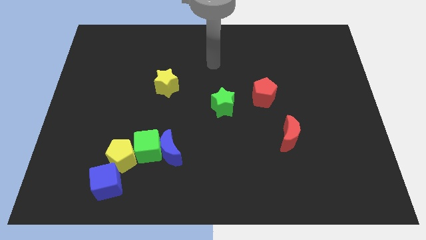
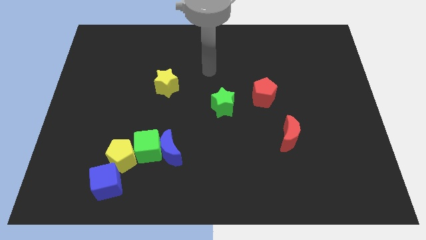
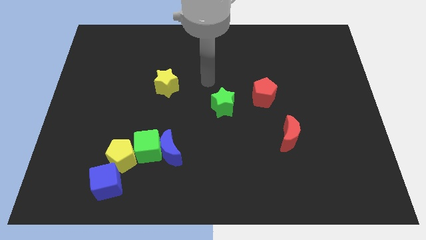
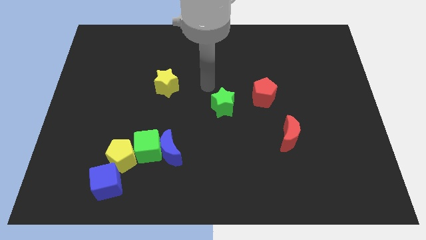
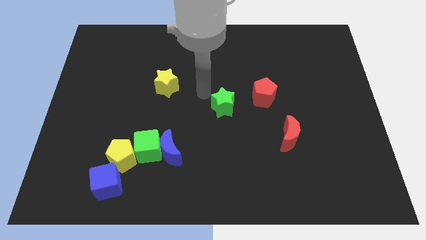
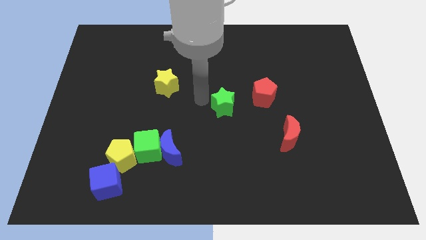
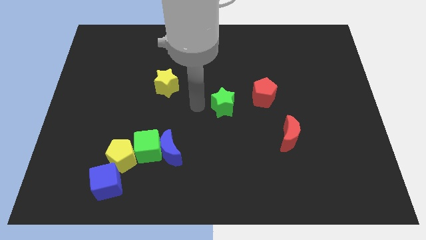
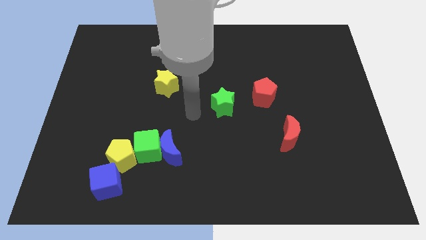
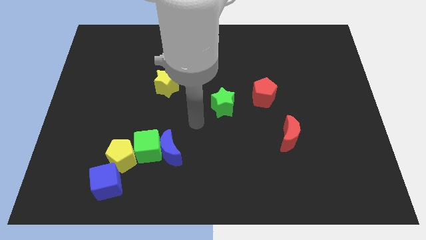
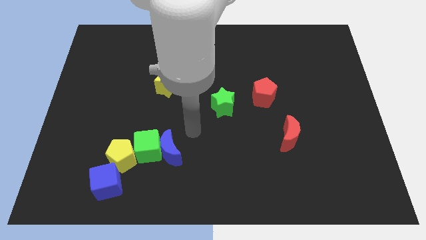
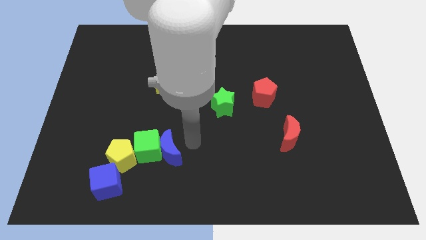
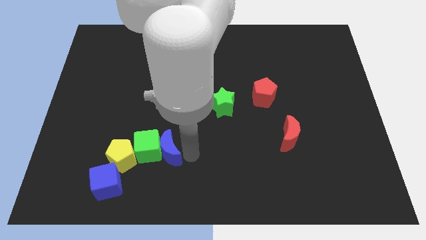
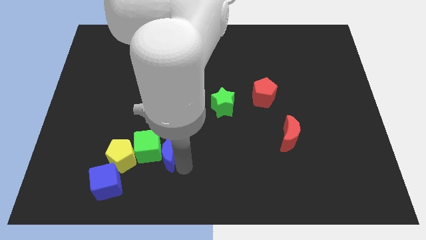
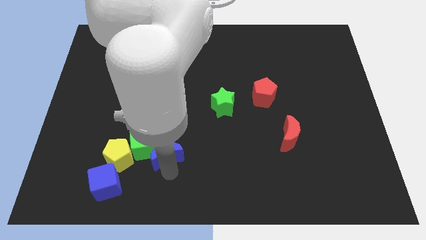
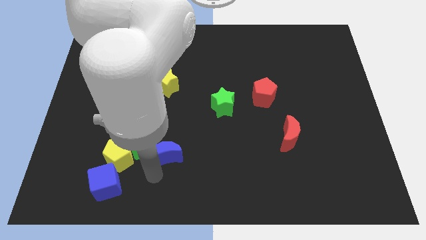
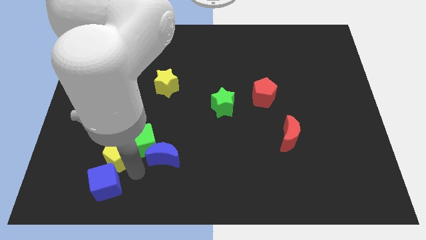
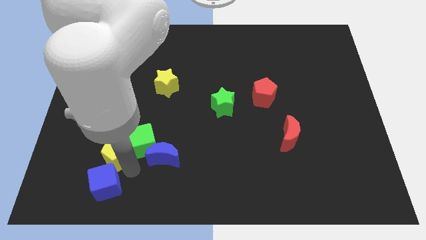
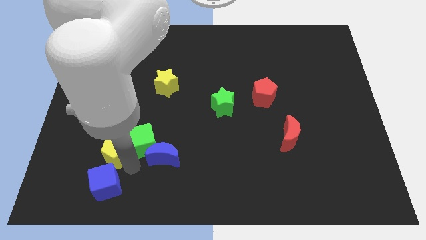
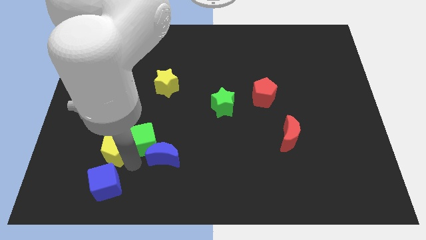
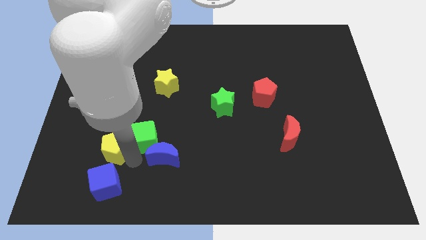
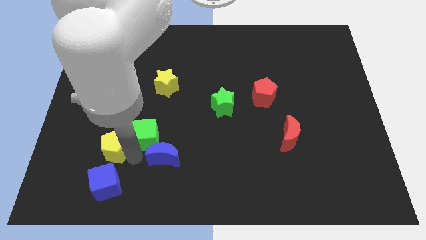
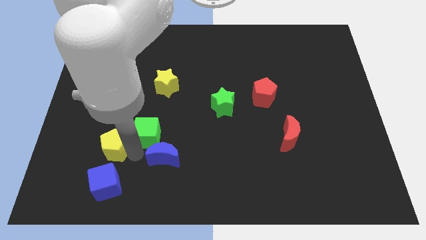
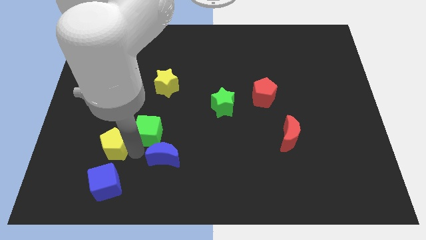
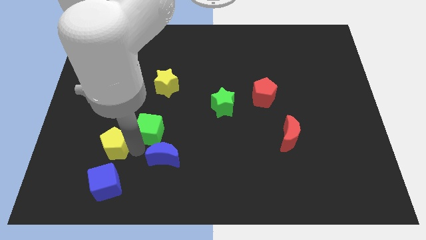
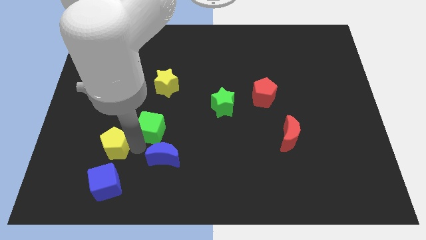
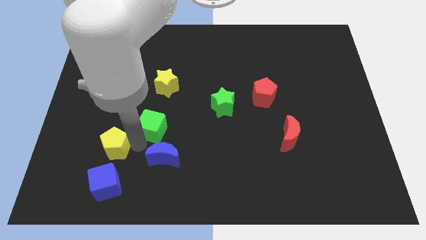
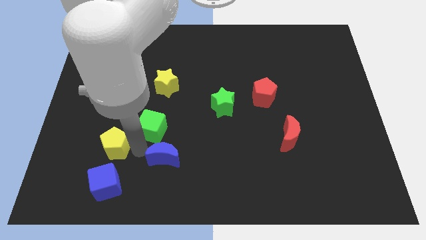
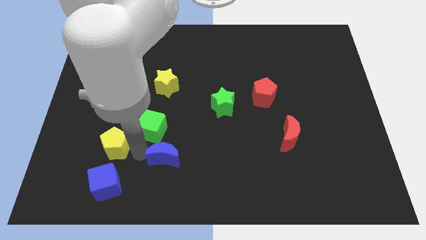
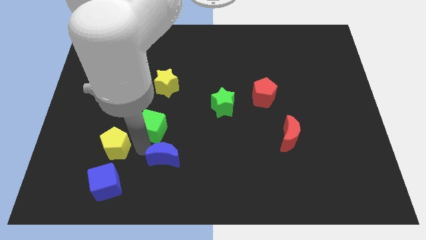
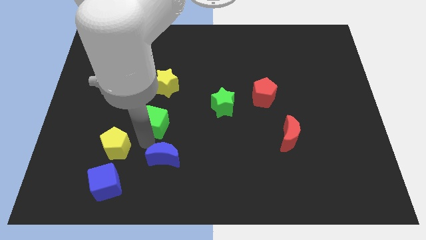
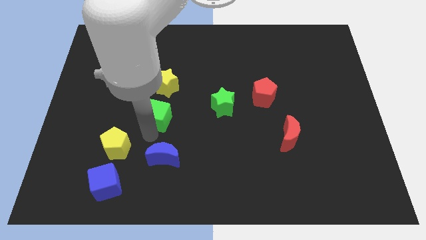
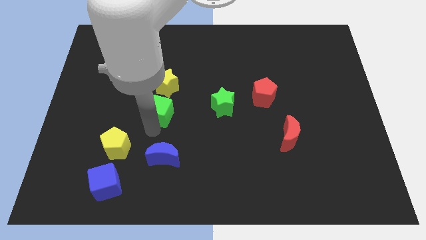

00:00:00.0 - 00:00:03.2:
pull the green cube apart from the blue moon and yellow pentagon

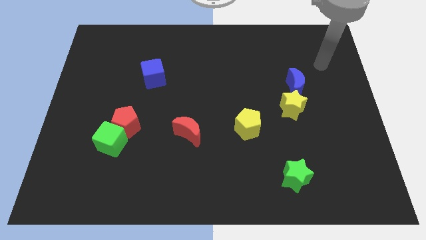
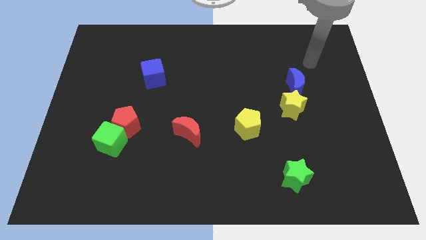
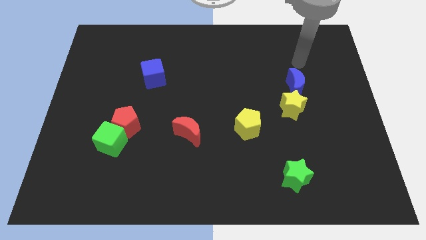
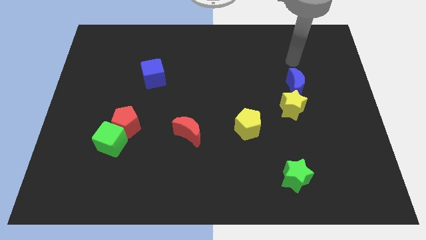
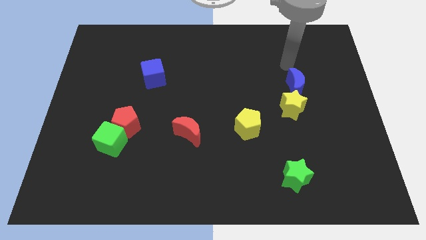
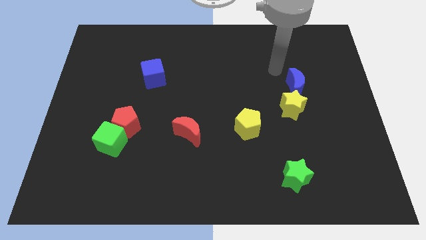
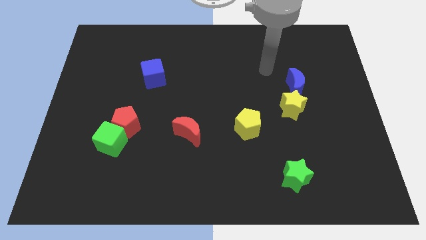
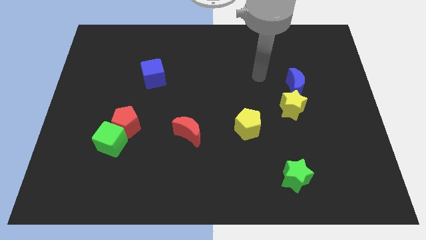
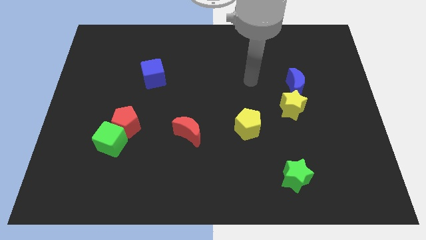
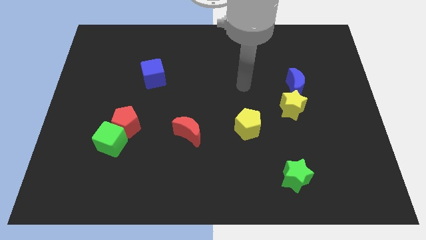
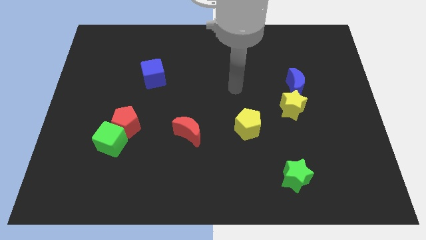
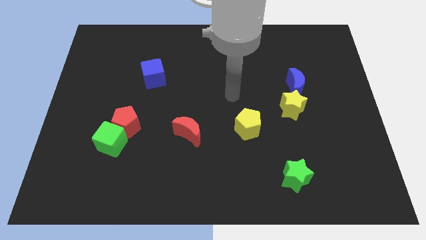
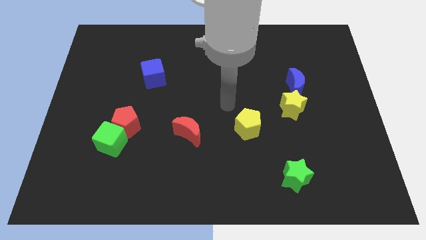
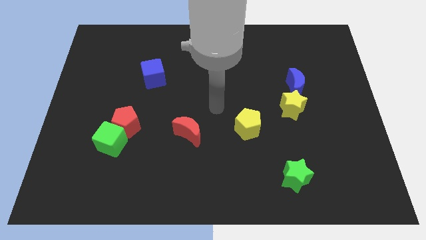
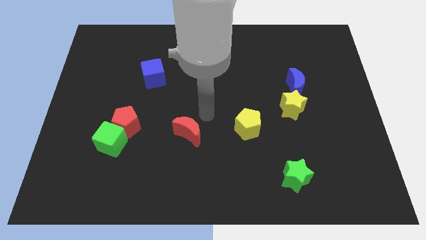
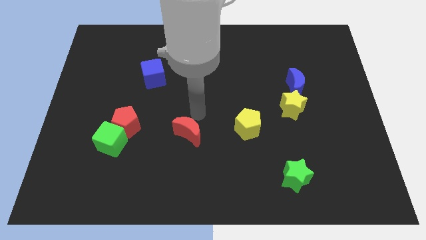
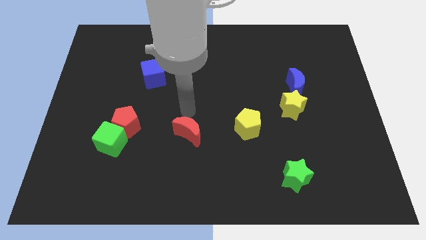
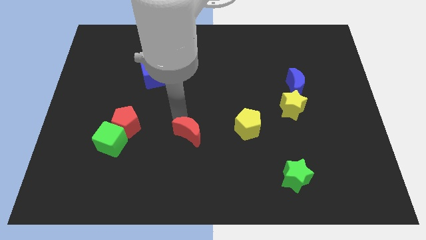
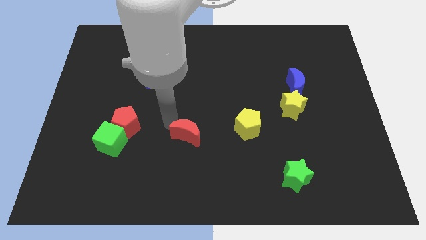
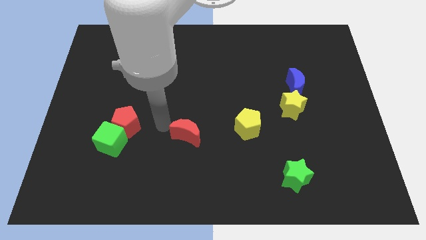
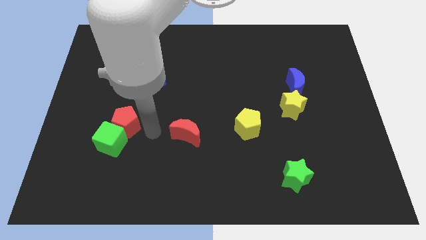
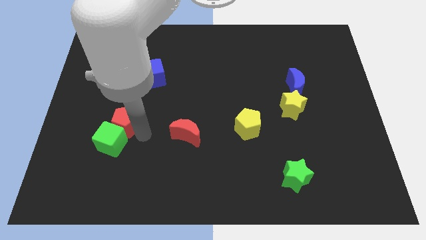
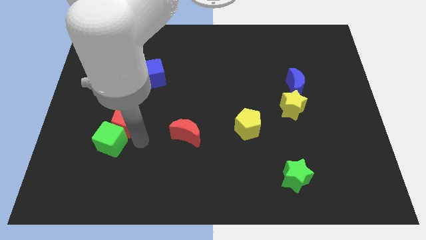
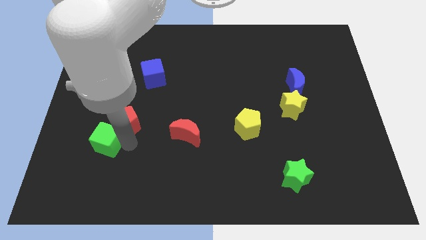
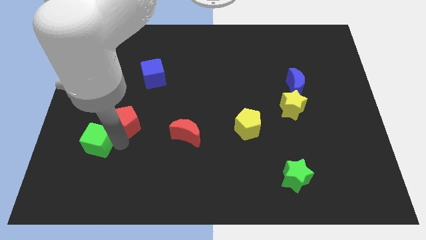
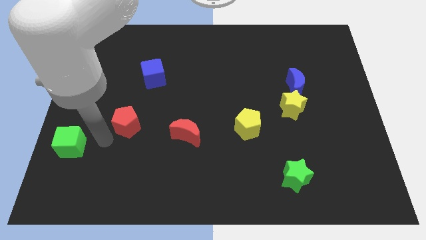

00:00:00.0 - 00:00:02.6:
pull the red pentagon apart from the green cube

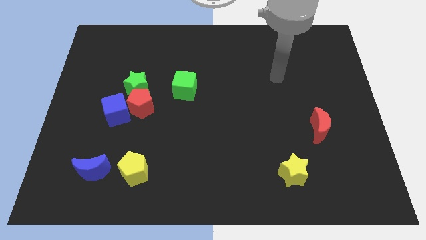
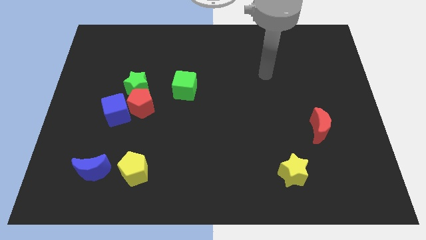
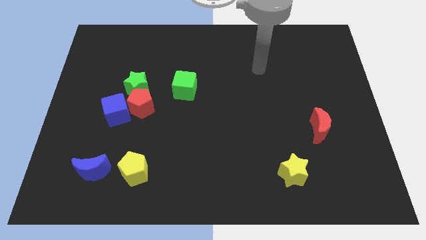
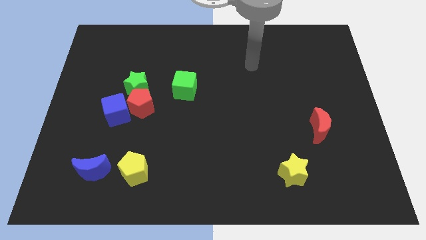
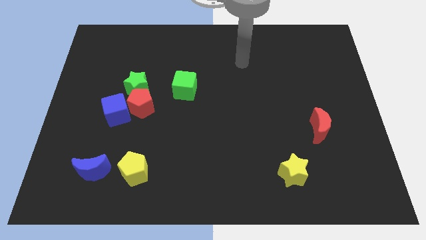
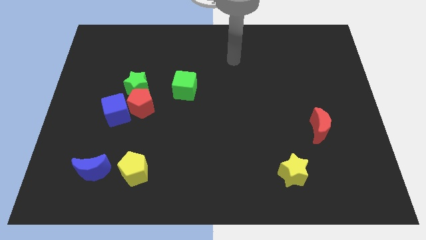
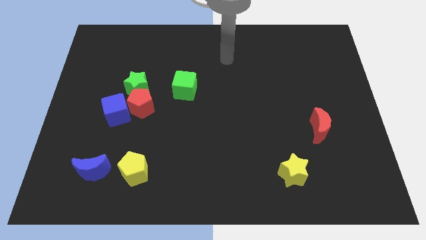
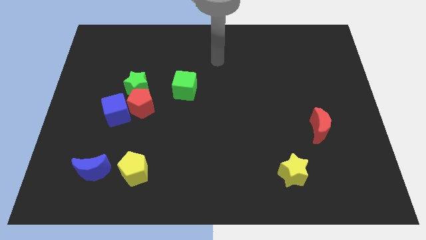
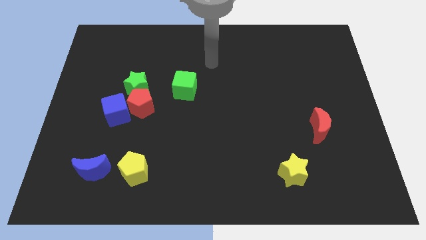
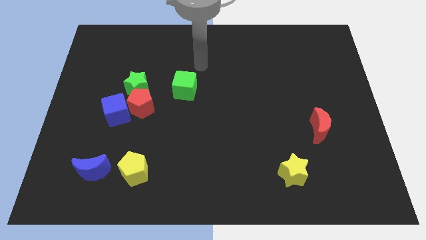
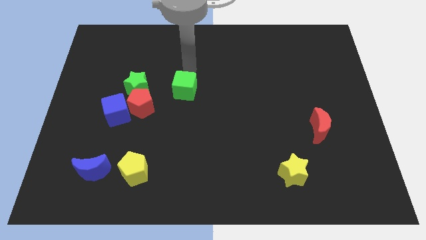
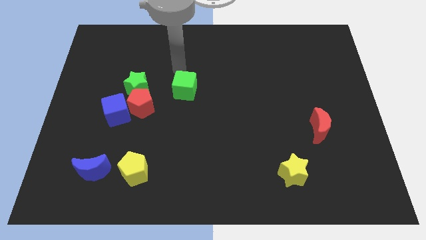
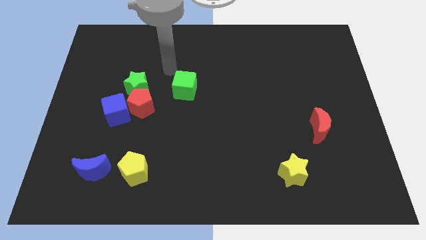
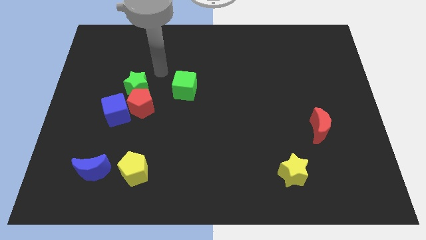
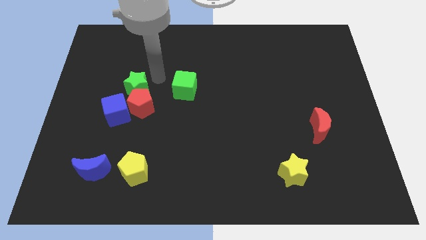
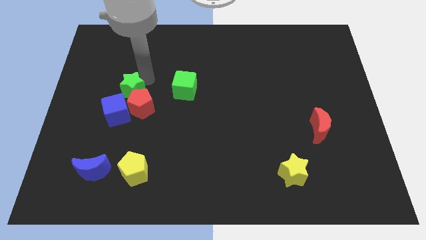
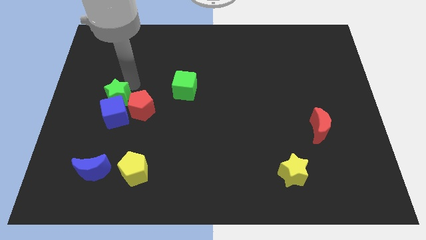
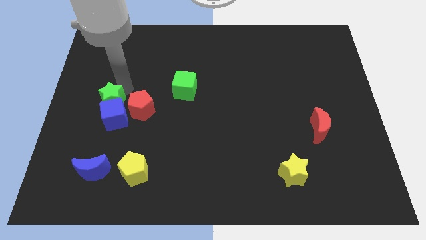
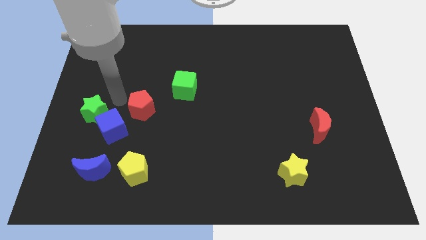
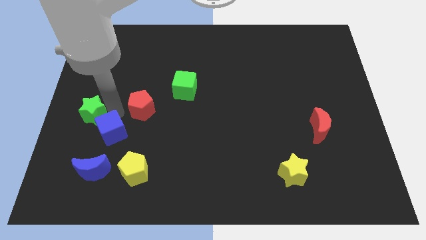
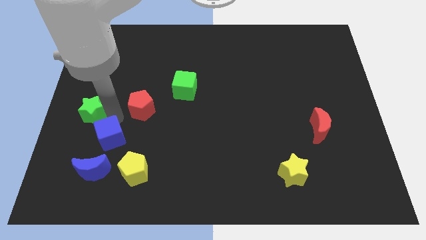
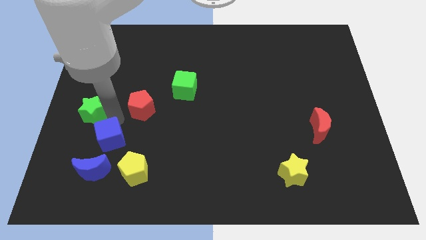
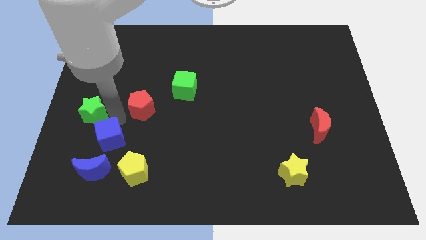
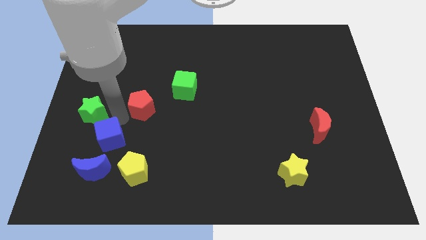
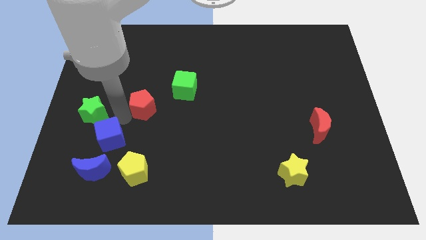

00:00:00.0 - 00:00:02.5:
separate the red pentagon from the green star and blue cube

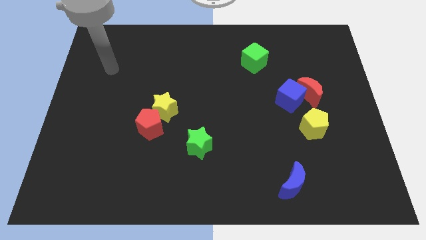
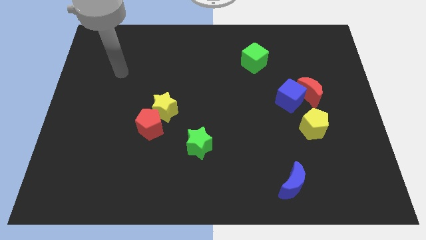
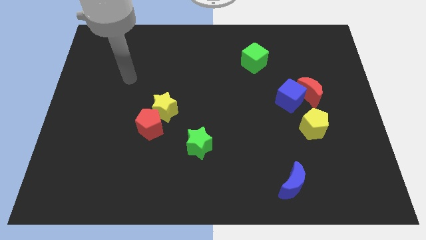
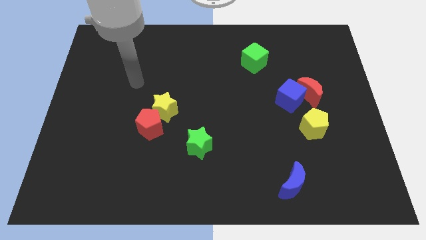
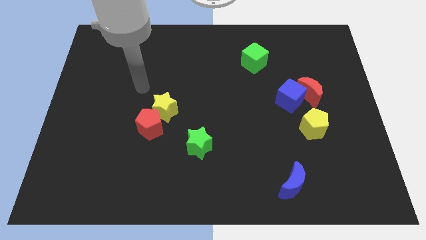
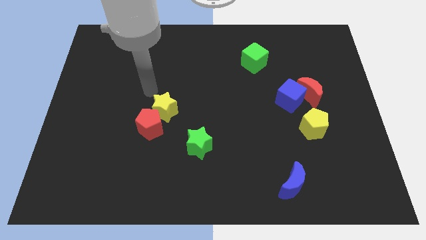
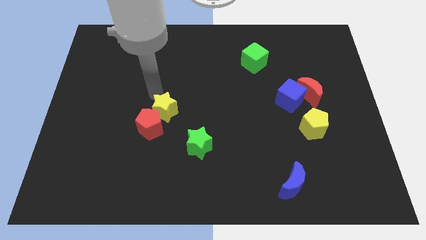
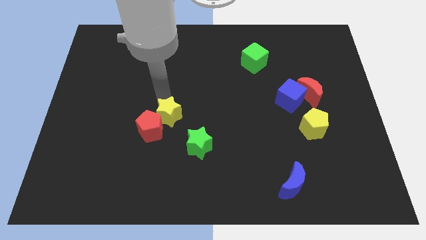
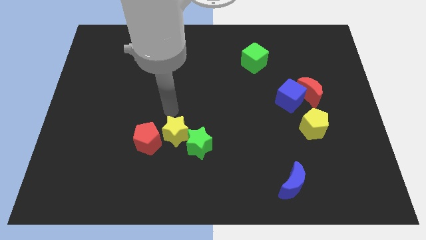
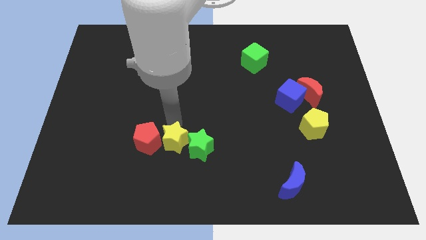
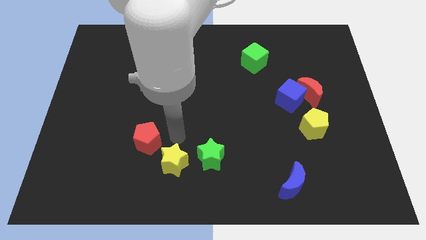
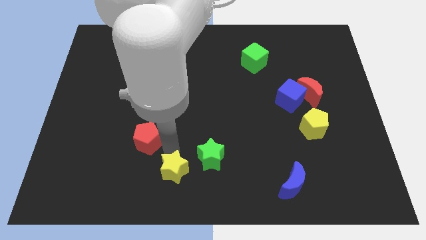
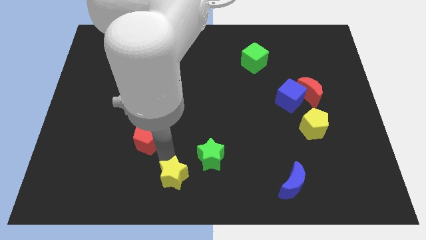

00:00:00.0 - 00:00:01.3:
separate the red pentagon from the yellow star
